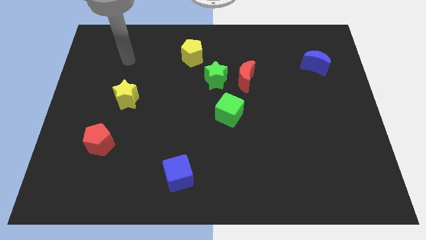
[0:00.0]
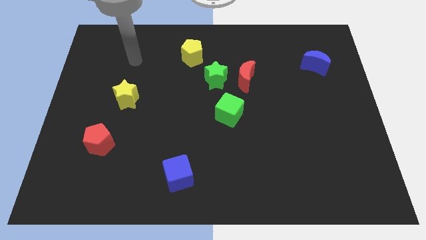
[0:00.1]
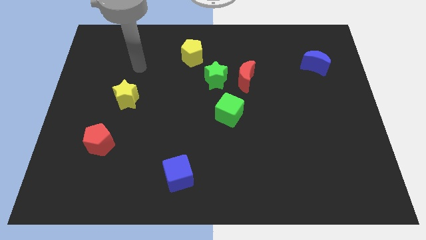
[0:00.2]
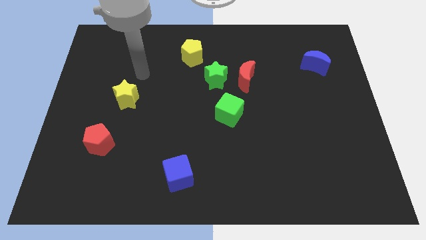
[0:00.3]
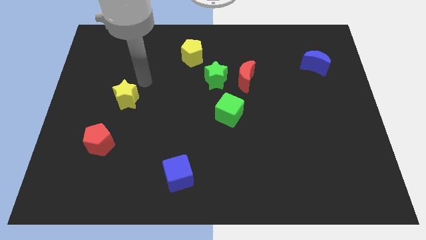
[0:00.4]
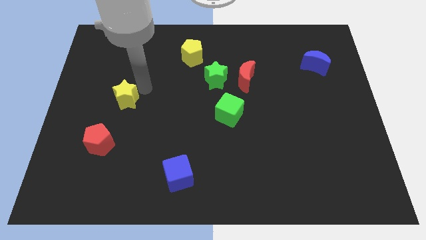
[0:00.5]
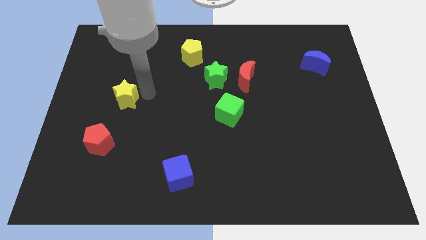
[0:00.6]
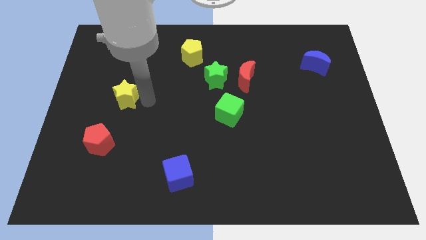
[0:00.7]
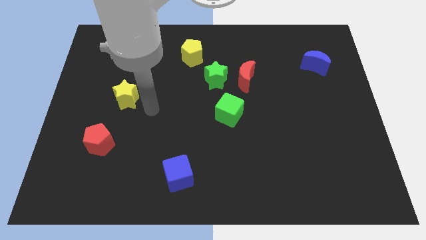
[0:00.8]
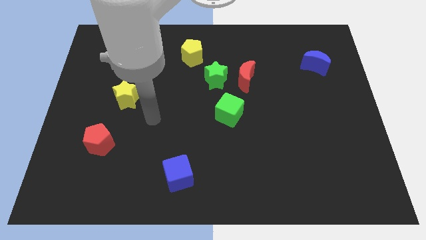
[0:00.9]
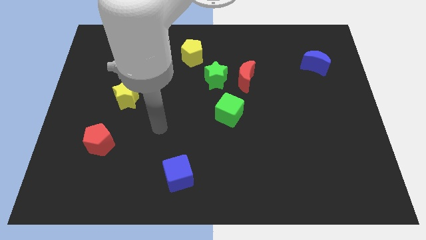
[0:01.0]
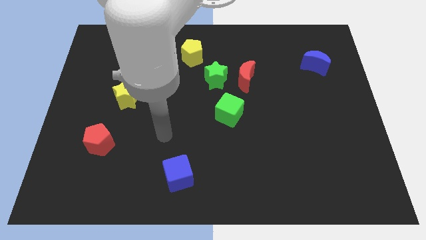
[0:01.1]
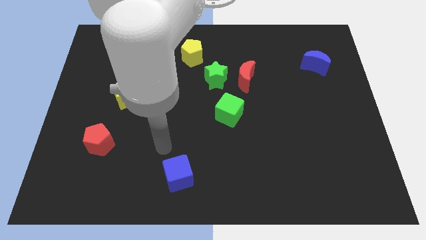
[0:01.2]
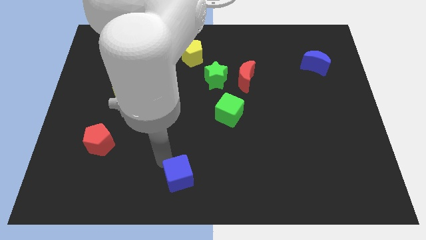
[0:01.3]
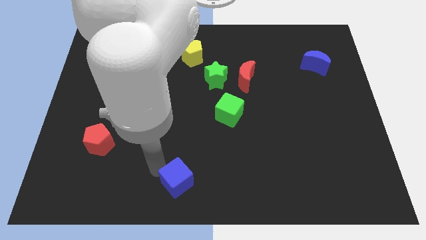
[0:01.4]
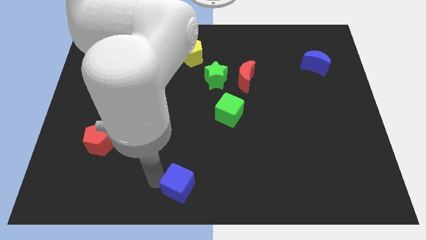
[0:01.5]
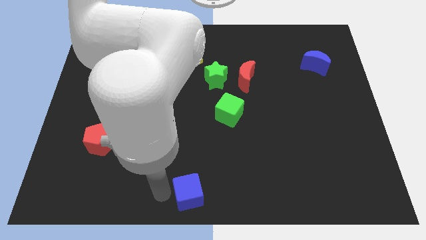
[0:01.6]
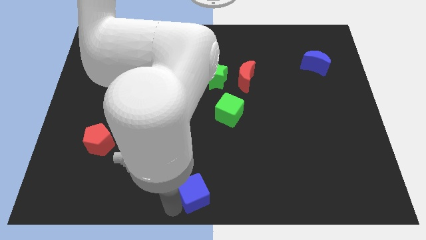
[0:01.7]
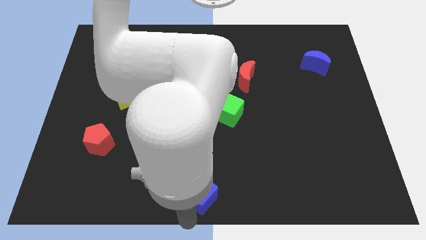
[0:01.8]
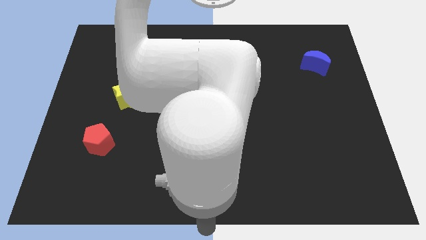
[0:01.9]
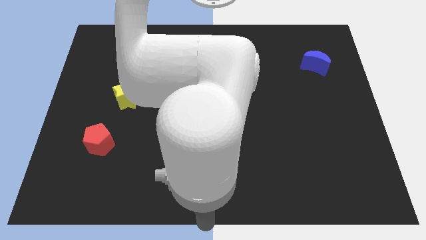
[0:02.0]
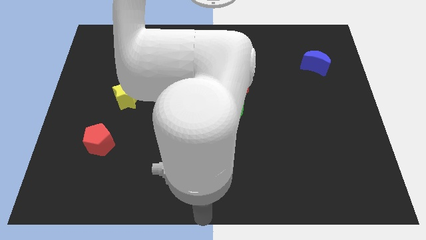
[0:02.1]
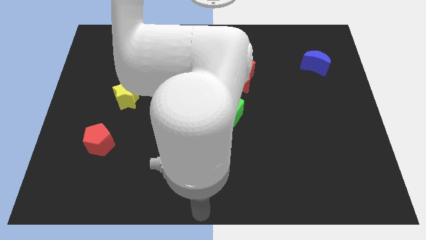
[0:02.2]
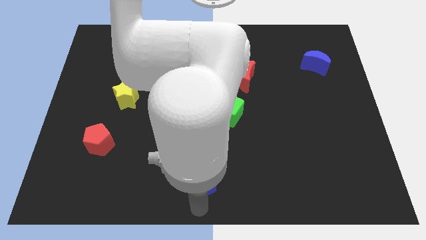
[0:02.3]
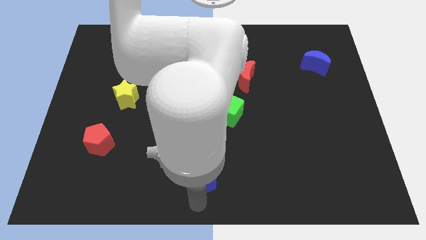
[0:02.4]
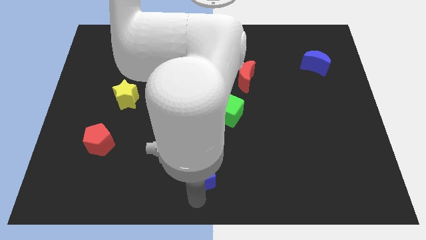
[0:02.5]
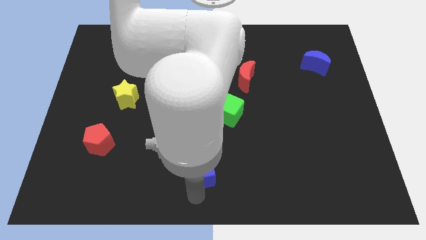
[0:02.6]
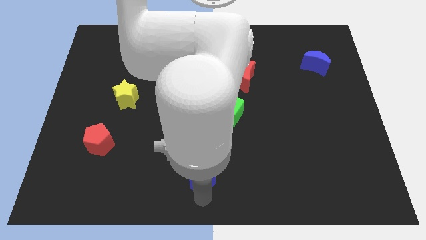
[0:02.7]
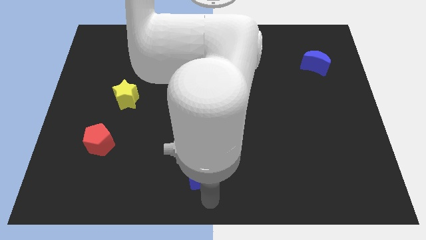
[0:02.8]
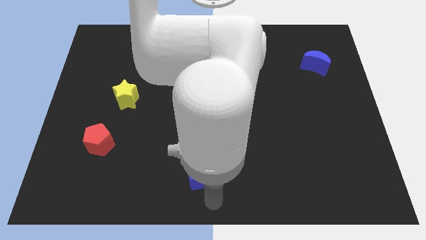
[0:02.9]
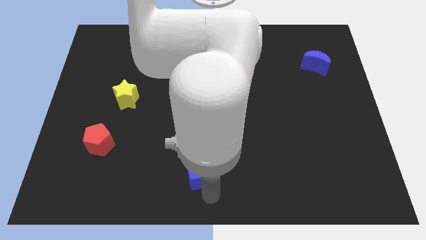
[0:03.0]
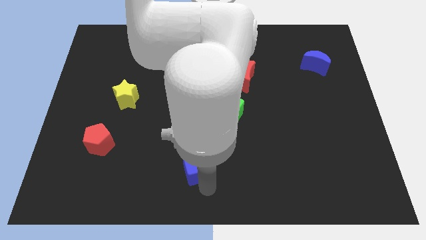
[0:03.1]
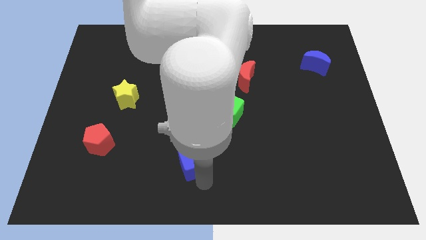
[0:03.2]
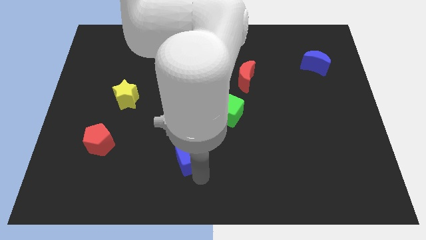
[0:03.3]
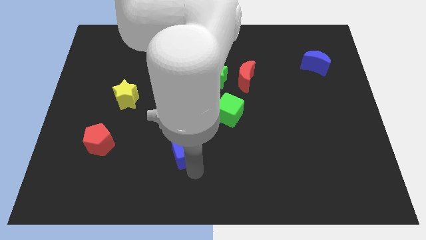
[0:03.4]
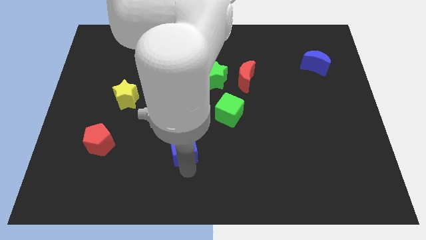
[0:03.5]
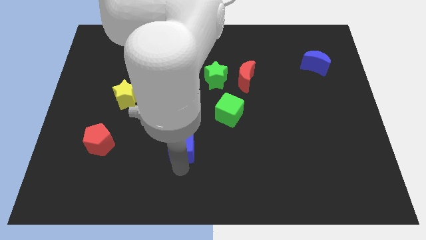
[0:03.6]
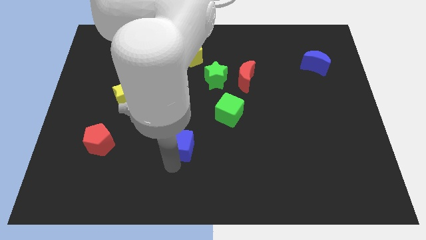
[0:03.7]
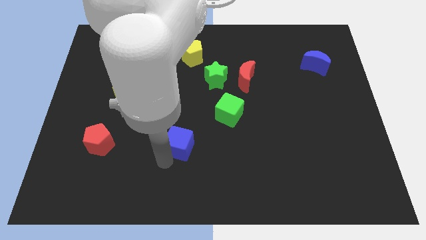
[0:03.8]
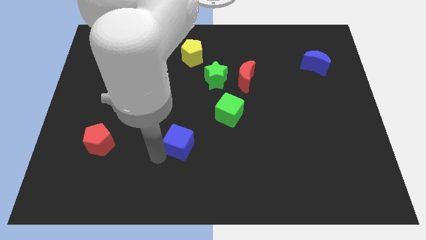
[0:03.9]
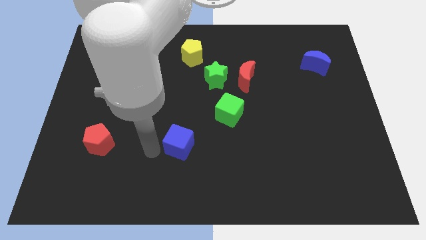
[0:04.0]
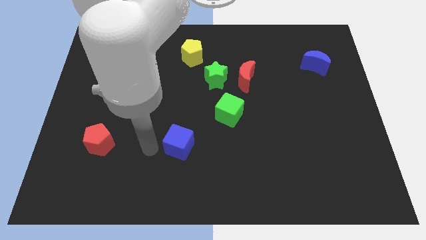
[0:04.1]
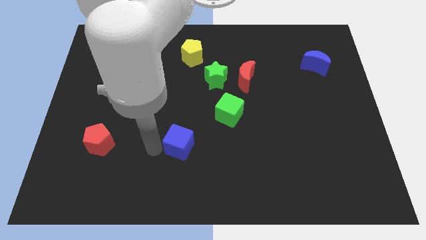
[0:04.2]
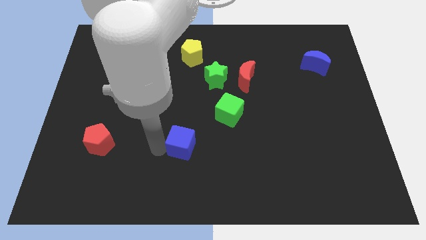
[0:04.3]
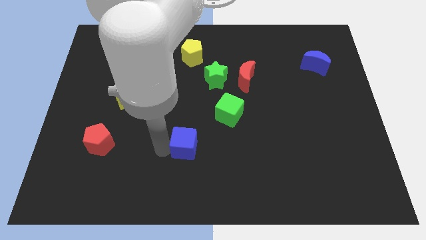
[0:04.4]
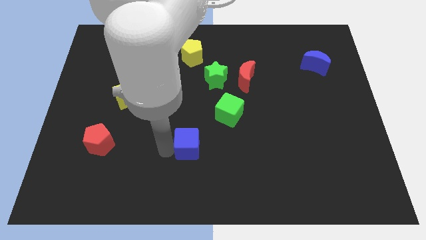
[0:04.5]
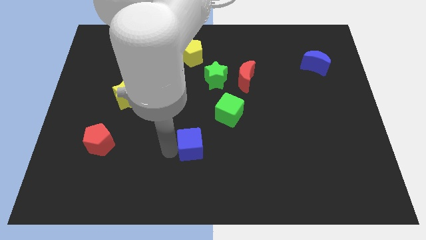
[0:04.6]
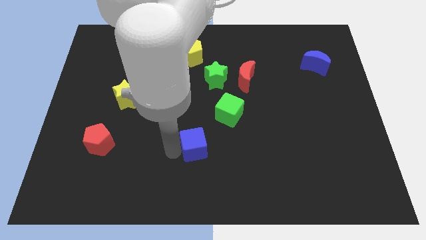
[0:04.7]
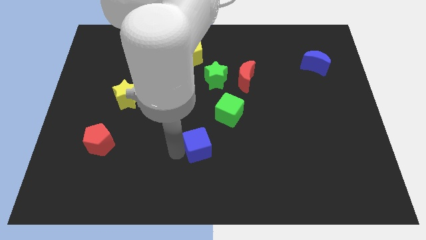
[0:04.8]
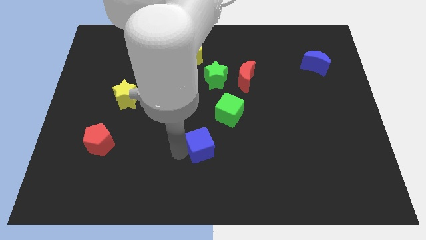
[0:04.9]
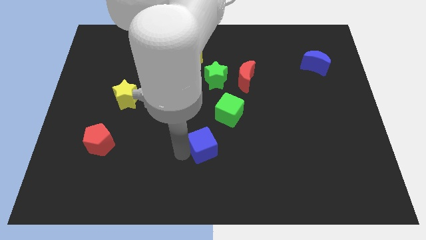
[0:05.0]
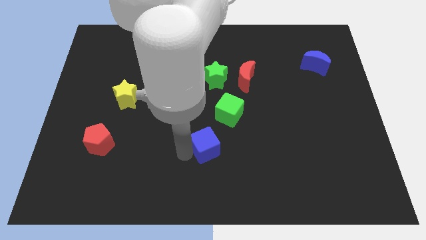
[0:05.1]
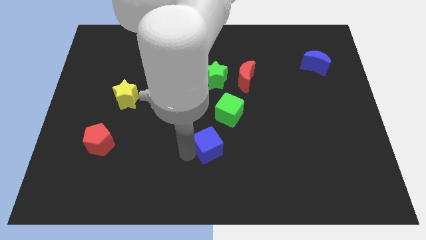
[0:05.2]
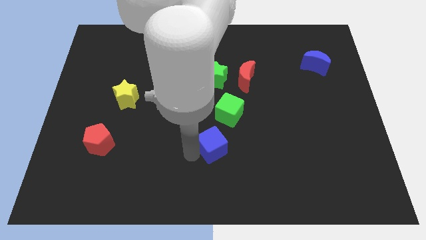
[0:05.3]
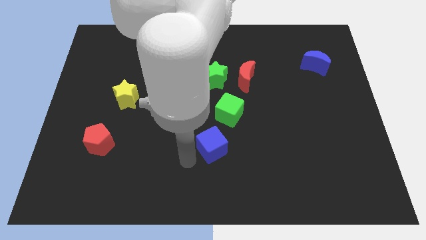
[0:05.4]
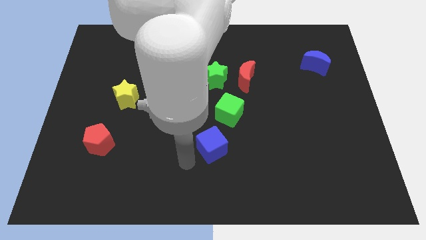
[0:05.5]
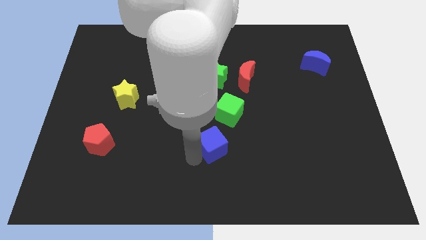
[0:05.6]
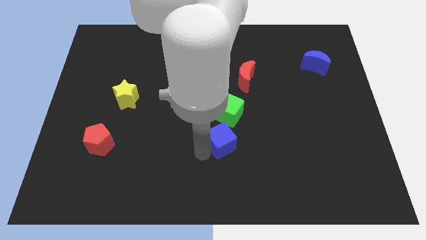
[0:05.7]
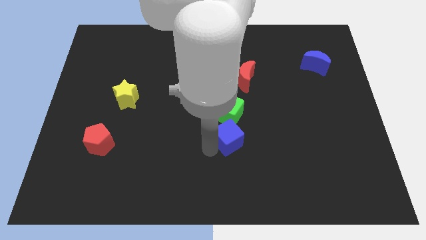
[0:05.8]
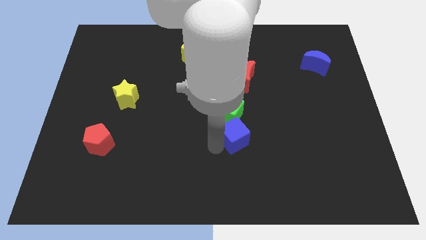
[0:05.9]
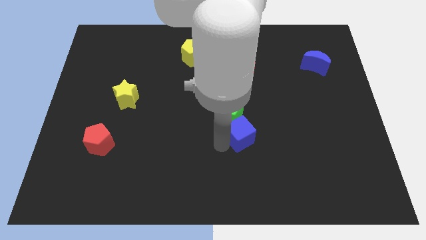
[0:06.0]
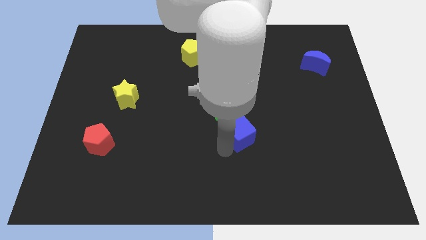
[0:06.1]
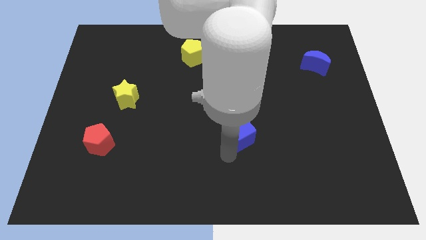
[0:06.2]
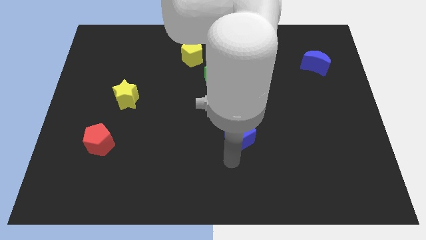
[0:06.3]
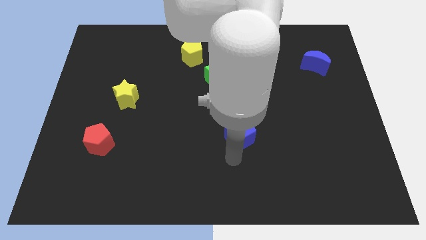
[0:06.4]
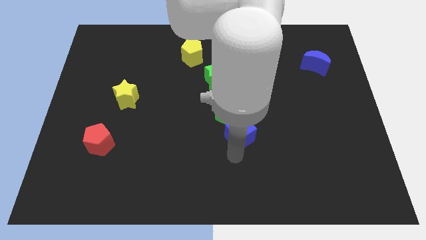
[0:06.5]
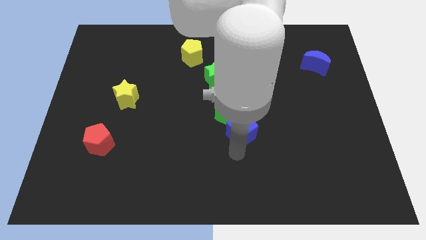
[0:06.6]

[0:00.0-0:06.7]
move the blue cube to the bottom of the red moon
